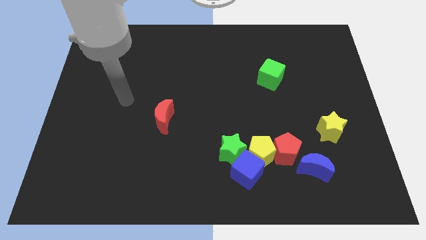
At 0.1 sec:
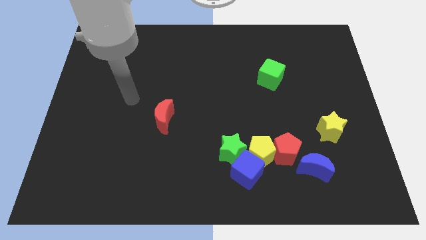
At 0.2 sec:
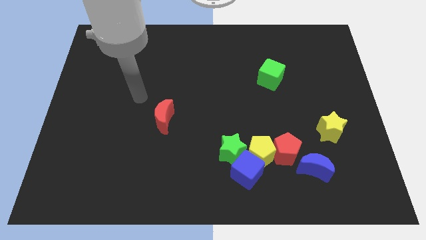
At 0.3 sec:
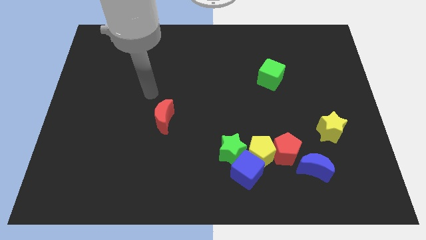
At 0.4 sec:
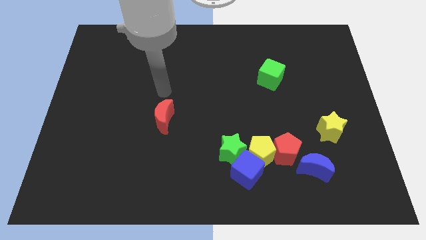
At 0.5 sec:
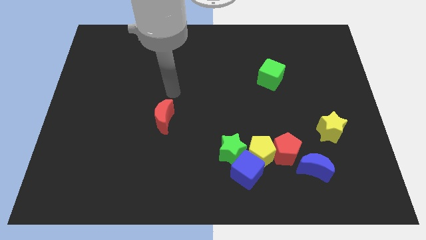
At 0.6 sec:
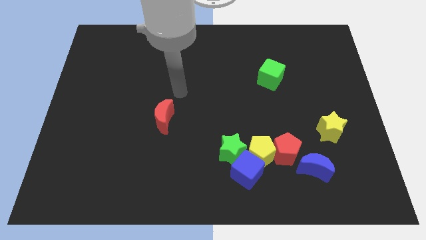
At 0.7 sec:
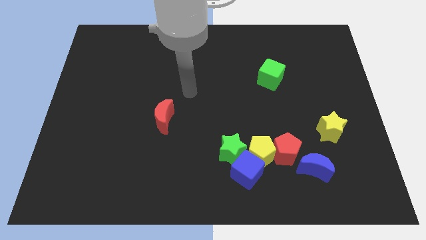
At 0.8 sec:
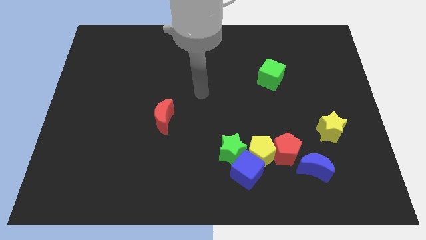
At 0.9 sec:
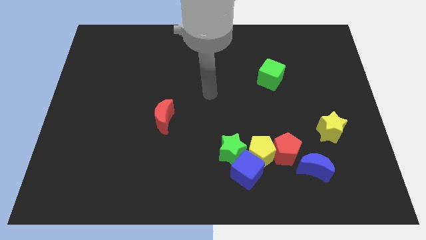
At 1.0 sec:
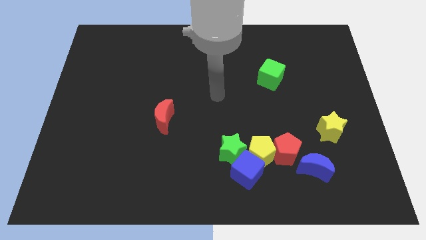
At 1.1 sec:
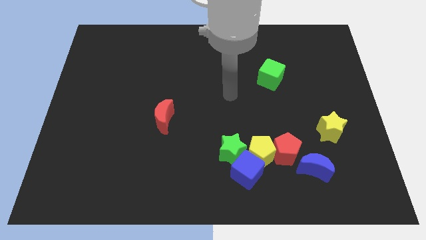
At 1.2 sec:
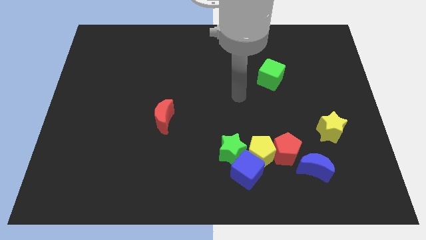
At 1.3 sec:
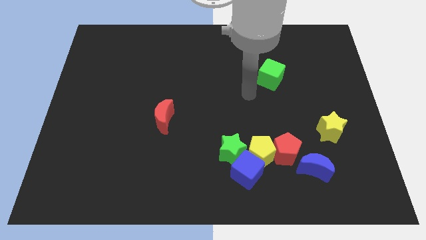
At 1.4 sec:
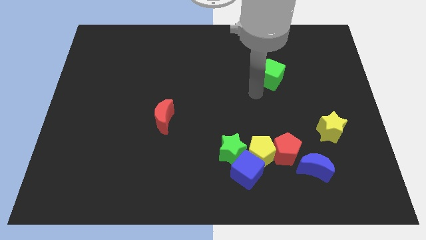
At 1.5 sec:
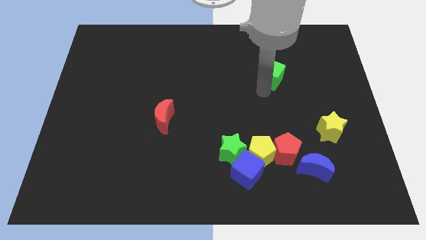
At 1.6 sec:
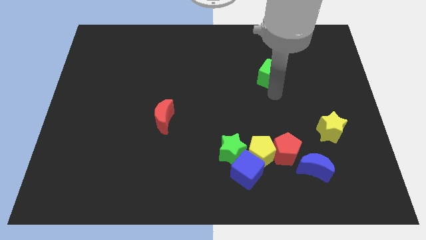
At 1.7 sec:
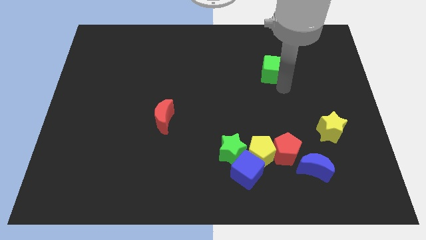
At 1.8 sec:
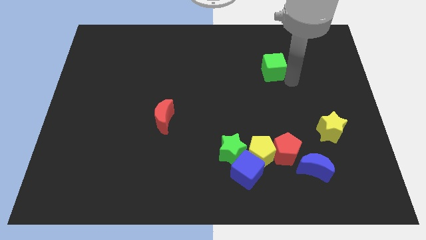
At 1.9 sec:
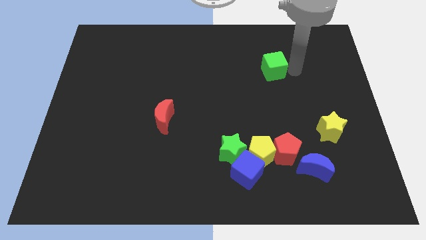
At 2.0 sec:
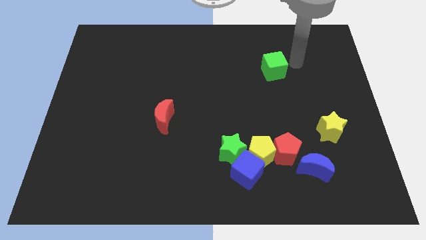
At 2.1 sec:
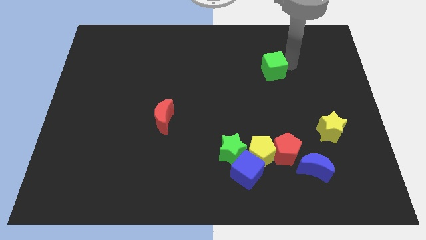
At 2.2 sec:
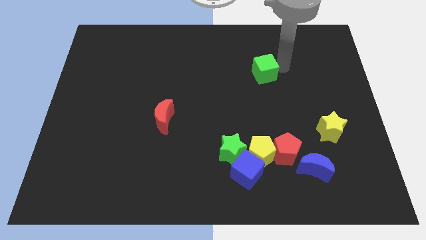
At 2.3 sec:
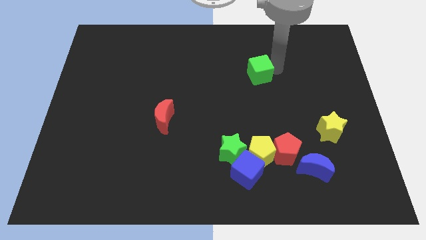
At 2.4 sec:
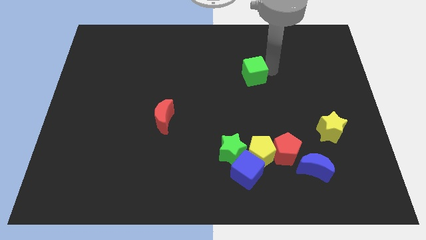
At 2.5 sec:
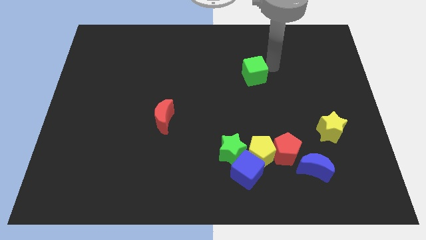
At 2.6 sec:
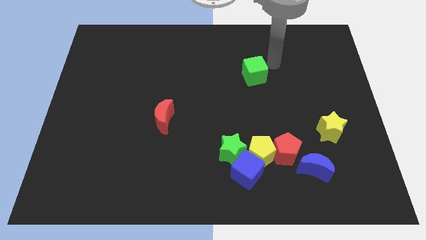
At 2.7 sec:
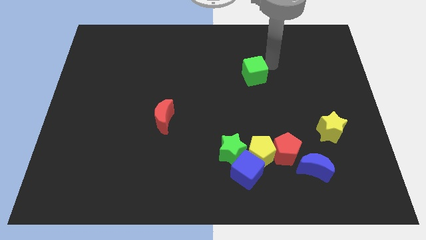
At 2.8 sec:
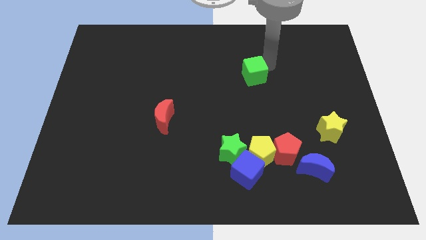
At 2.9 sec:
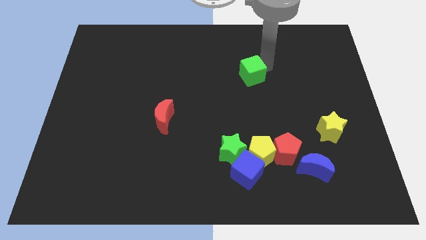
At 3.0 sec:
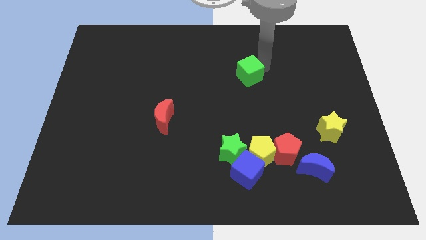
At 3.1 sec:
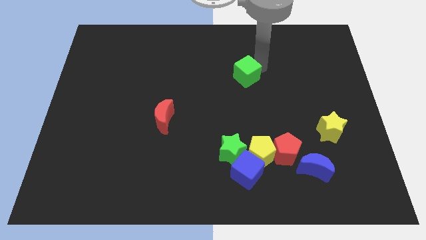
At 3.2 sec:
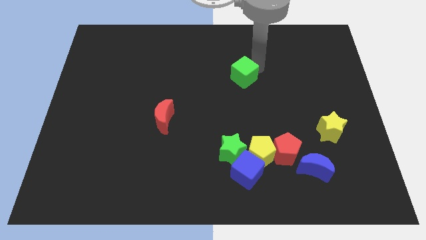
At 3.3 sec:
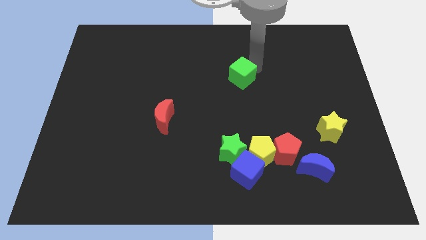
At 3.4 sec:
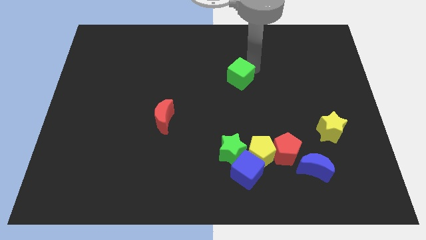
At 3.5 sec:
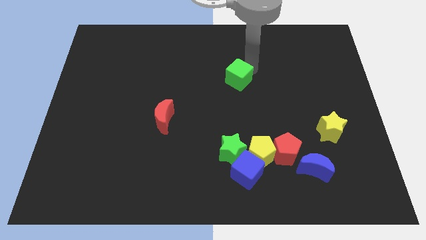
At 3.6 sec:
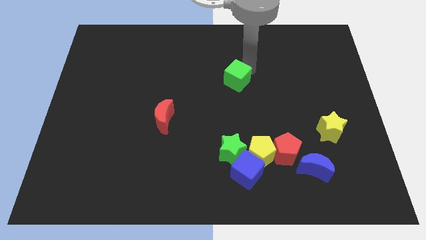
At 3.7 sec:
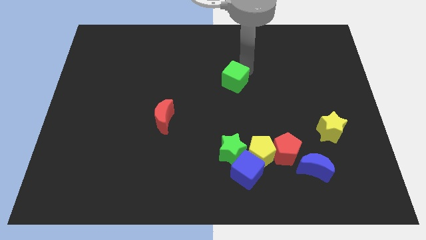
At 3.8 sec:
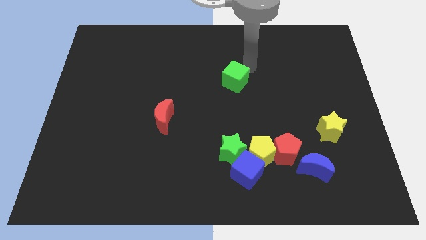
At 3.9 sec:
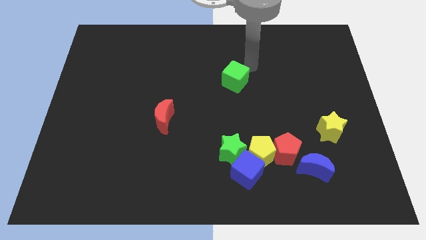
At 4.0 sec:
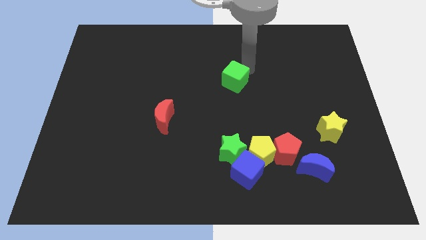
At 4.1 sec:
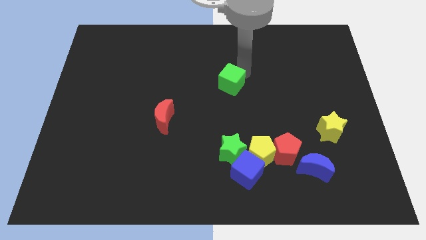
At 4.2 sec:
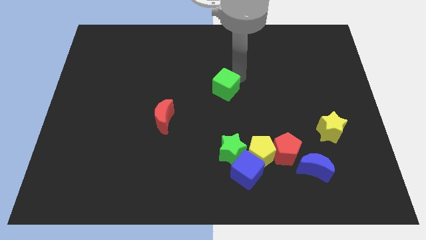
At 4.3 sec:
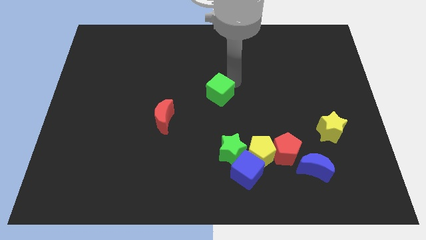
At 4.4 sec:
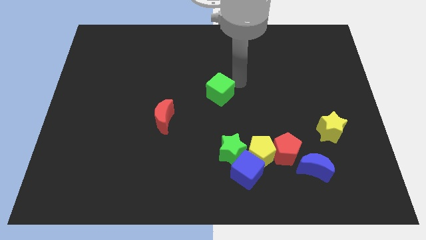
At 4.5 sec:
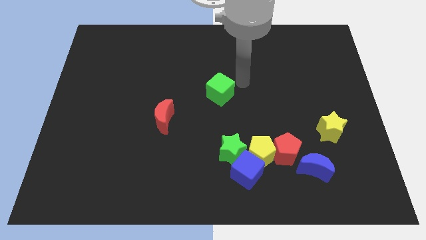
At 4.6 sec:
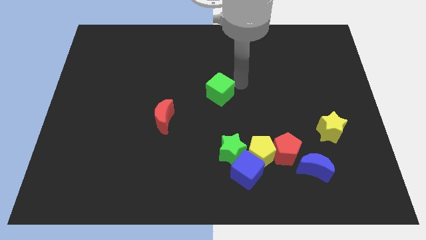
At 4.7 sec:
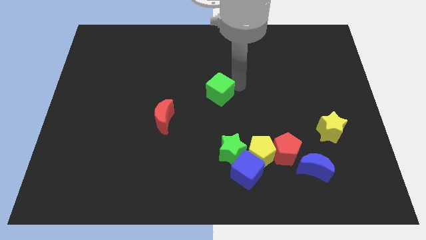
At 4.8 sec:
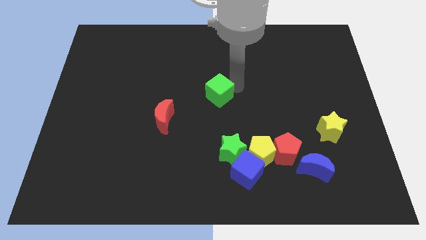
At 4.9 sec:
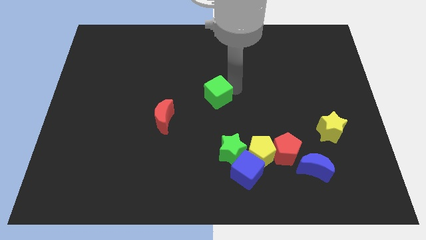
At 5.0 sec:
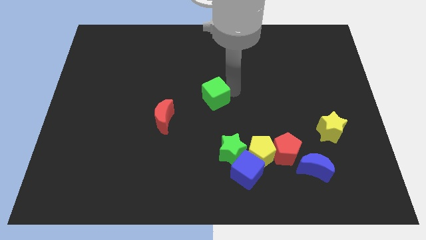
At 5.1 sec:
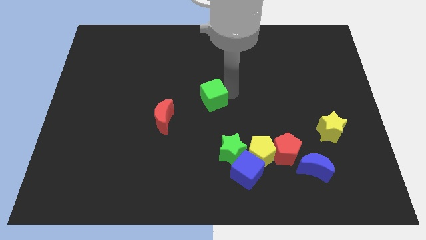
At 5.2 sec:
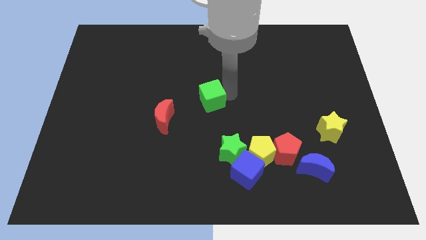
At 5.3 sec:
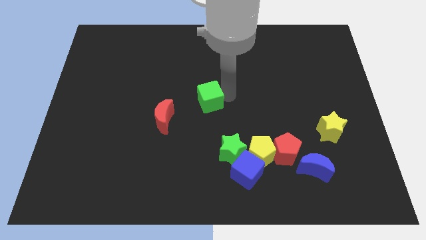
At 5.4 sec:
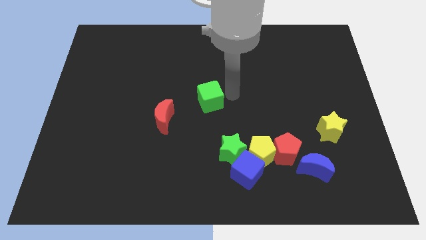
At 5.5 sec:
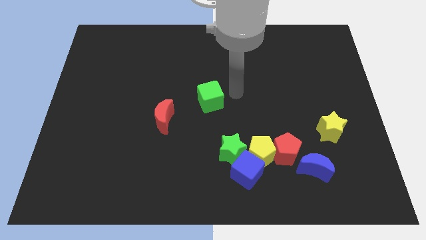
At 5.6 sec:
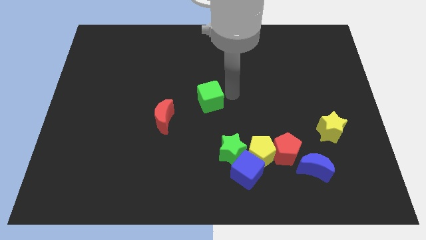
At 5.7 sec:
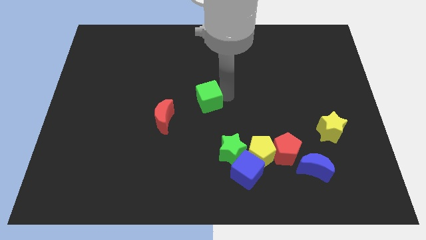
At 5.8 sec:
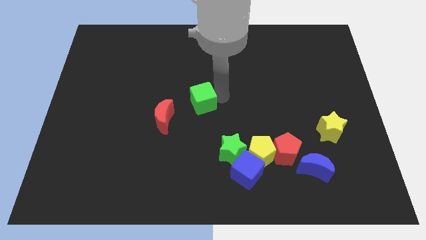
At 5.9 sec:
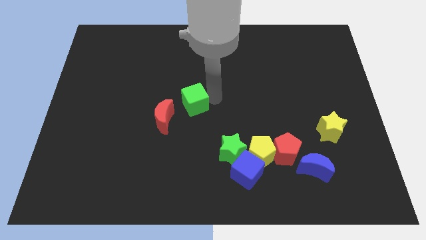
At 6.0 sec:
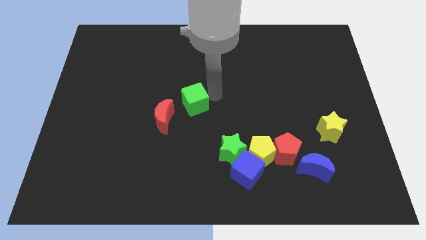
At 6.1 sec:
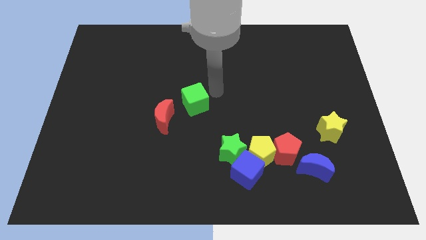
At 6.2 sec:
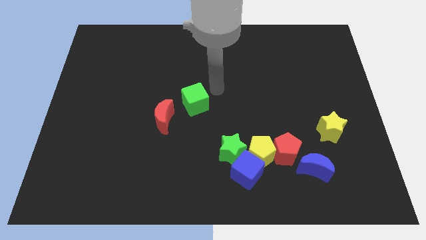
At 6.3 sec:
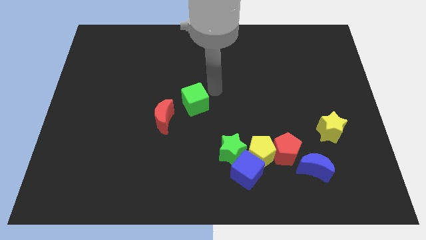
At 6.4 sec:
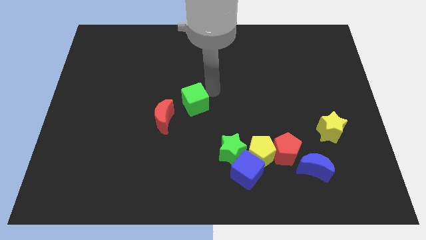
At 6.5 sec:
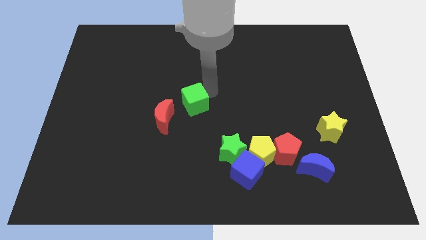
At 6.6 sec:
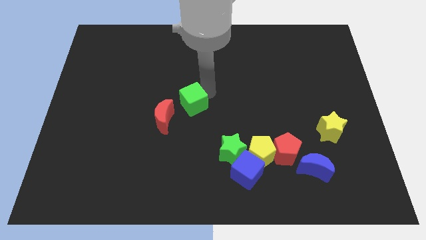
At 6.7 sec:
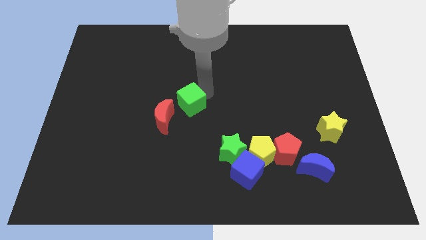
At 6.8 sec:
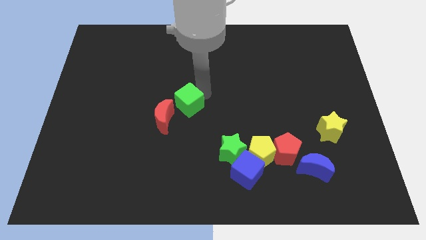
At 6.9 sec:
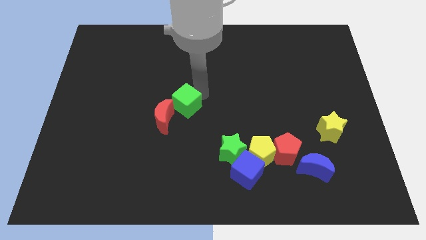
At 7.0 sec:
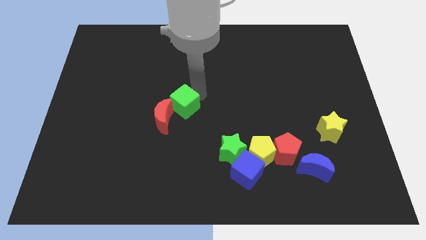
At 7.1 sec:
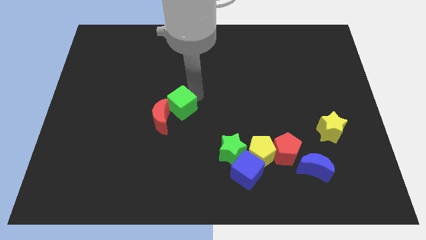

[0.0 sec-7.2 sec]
put the green cube next to the red moon
